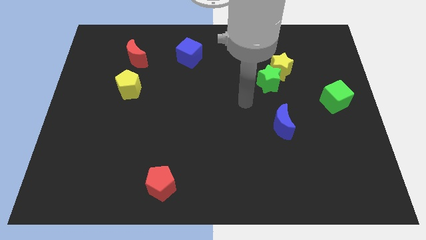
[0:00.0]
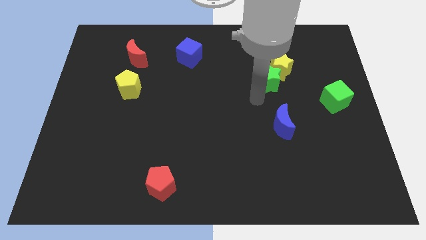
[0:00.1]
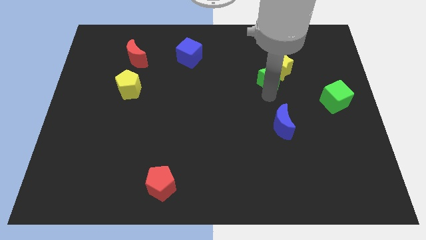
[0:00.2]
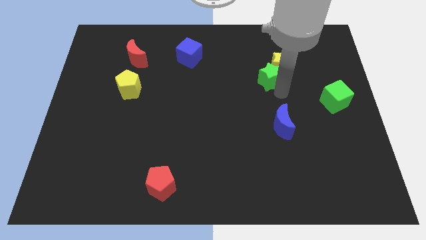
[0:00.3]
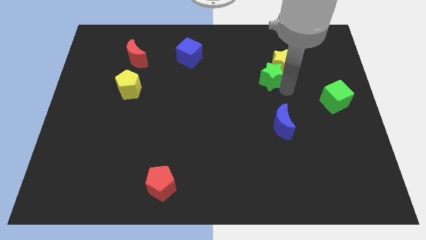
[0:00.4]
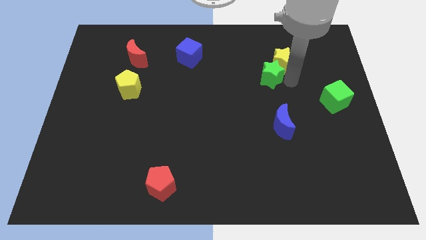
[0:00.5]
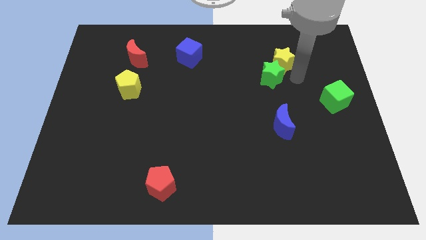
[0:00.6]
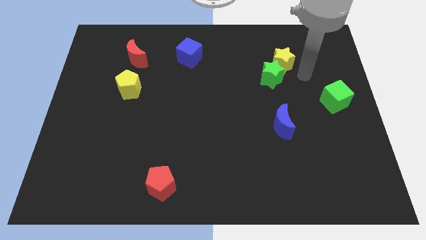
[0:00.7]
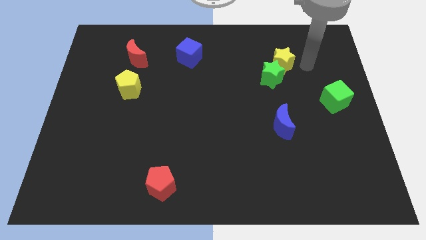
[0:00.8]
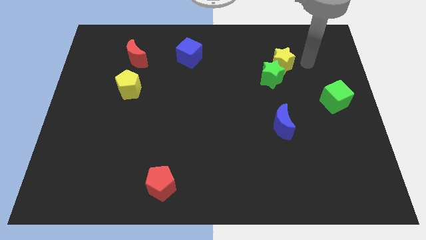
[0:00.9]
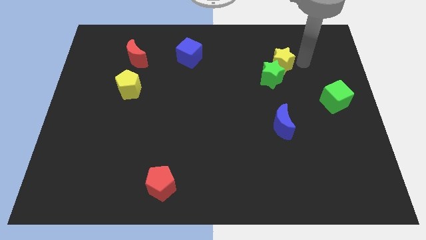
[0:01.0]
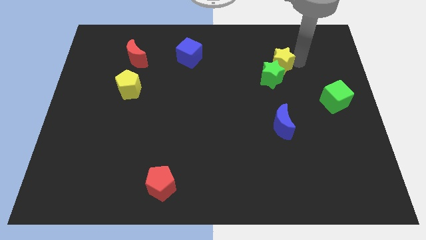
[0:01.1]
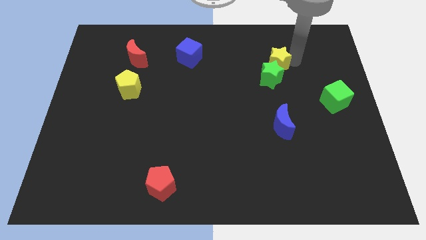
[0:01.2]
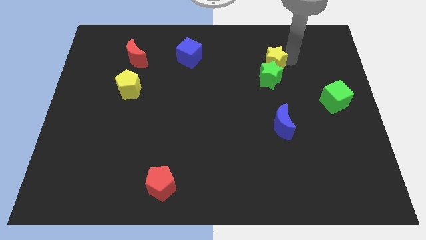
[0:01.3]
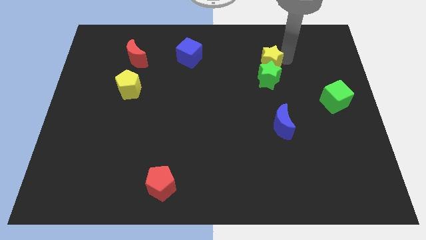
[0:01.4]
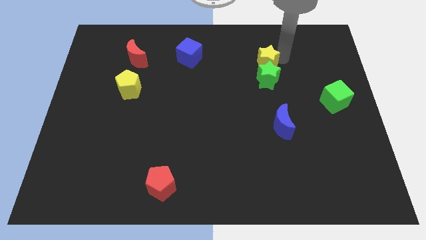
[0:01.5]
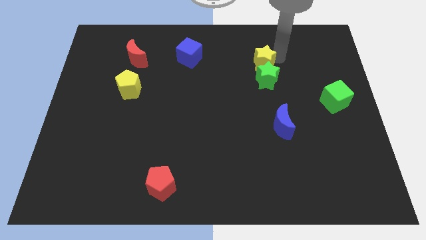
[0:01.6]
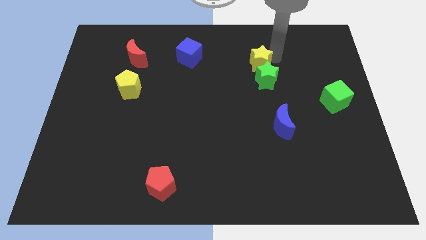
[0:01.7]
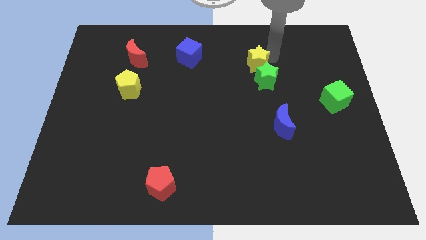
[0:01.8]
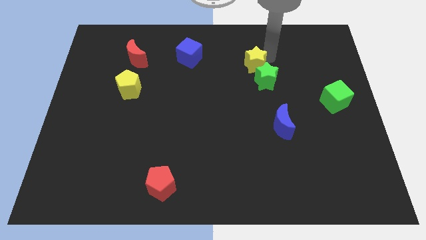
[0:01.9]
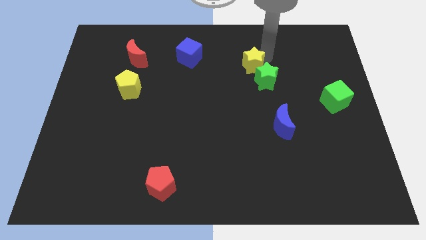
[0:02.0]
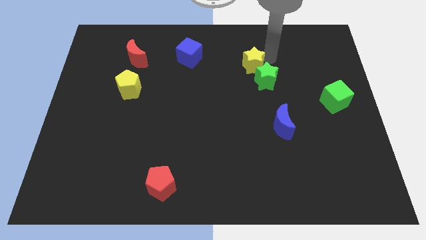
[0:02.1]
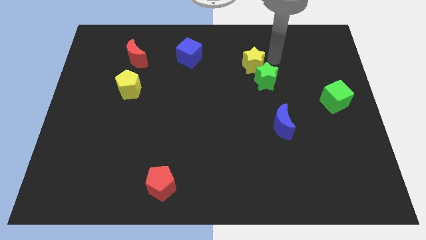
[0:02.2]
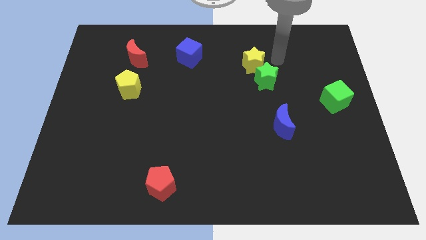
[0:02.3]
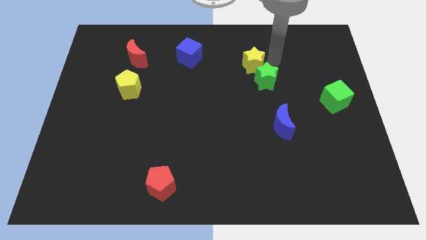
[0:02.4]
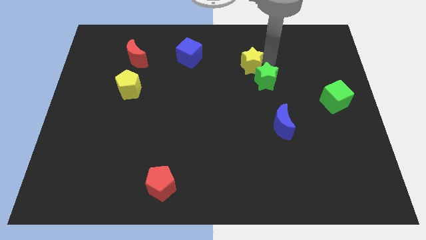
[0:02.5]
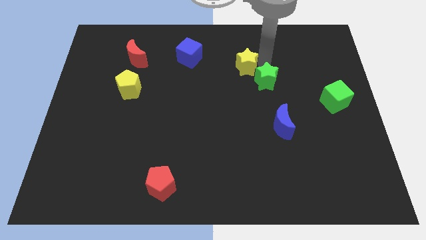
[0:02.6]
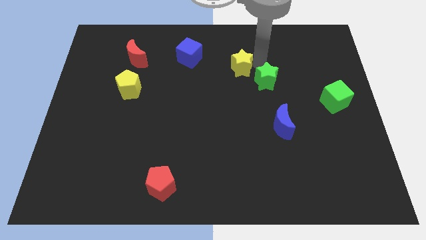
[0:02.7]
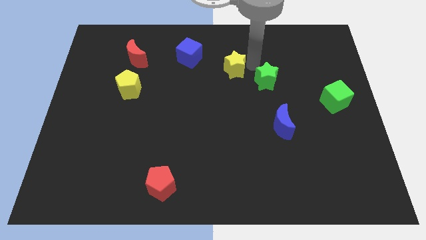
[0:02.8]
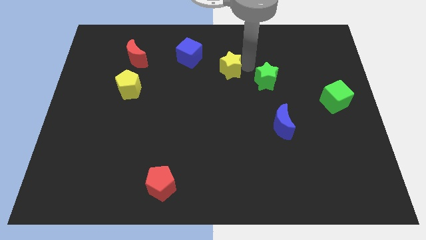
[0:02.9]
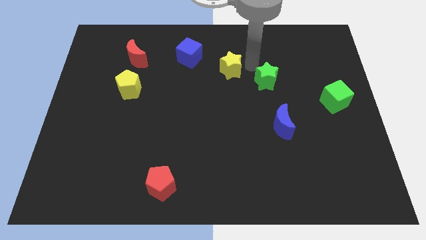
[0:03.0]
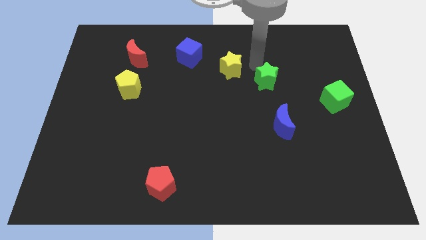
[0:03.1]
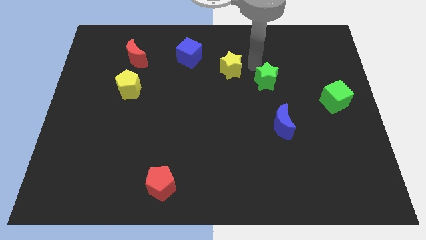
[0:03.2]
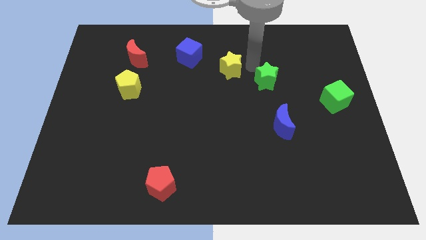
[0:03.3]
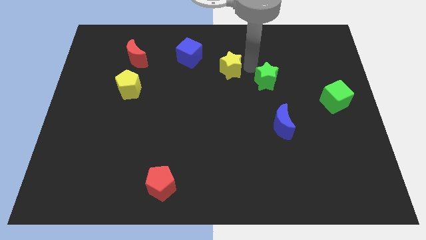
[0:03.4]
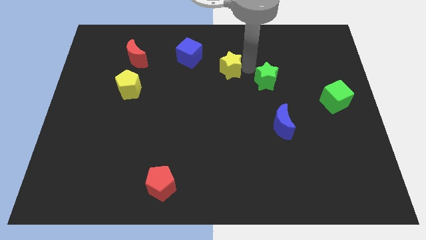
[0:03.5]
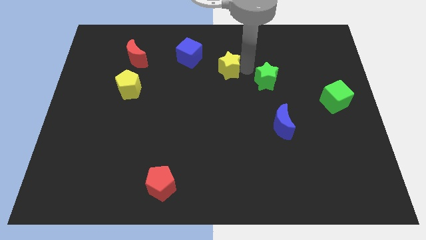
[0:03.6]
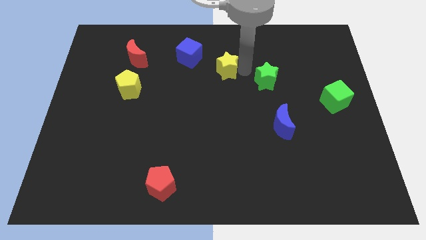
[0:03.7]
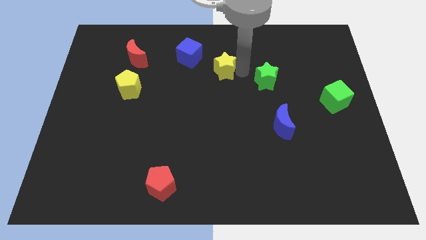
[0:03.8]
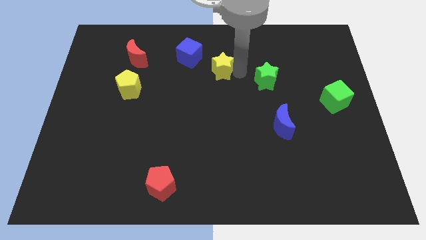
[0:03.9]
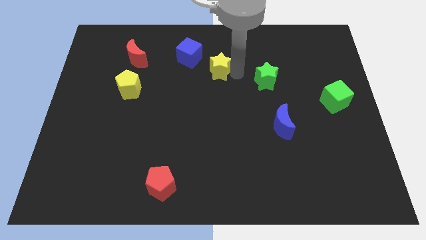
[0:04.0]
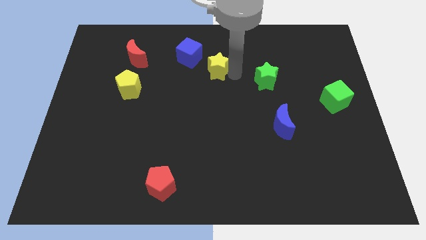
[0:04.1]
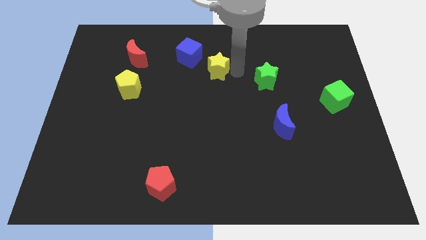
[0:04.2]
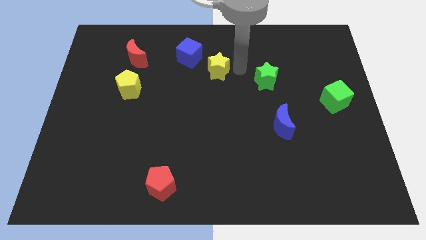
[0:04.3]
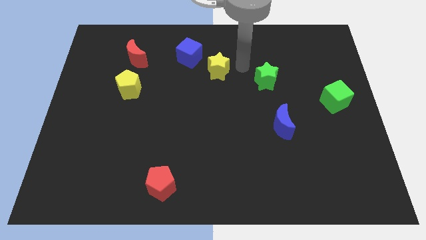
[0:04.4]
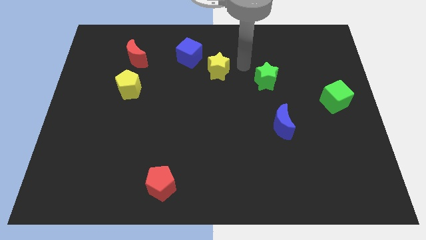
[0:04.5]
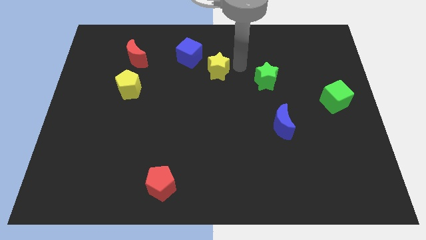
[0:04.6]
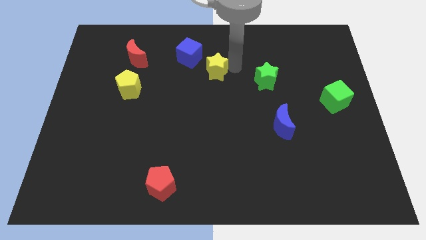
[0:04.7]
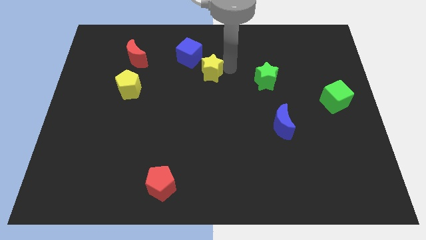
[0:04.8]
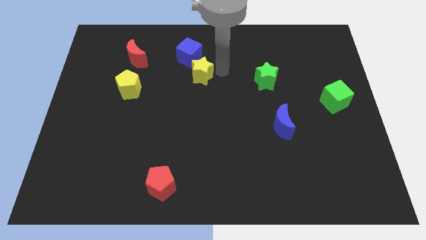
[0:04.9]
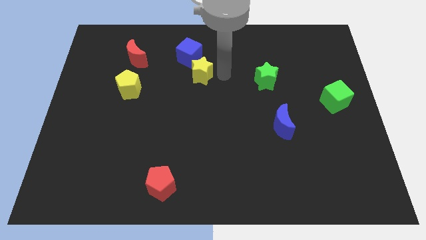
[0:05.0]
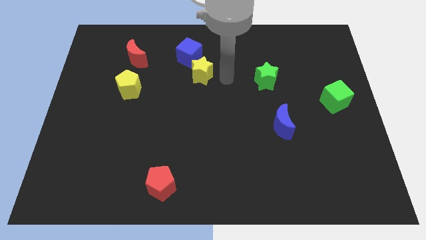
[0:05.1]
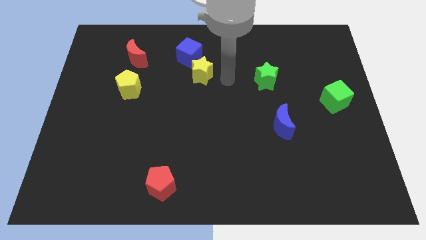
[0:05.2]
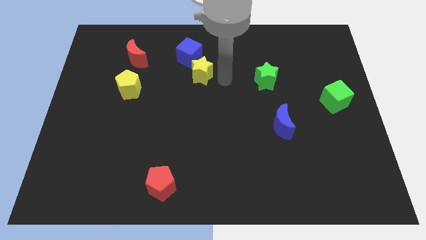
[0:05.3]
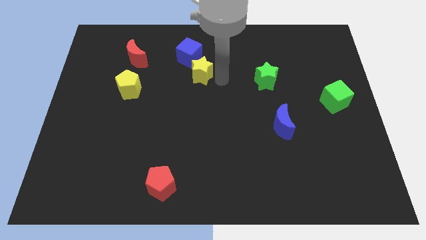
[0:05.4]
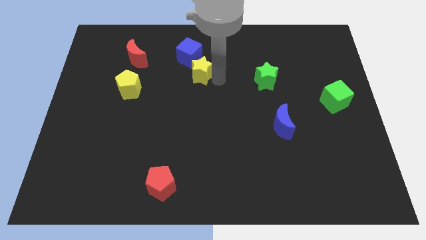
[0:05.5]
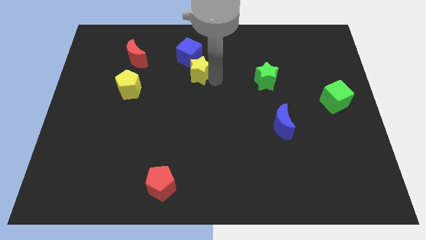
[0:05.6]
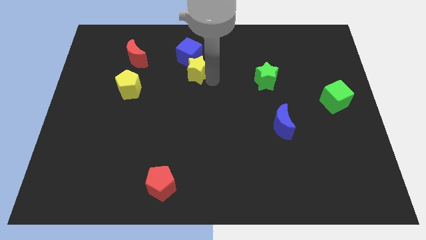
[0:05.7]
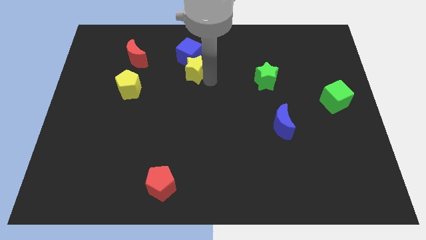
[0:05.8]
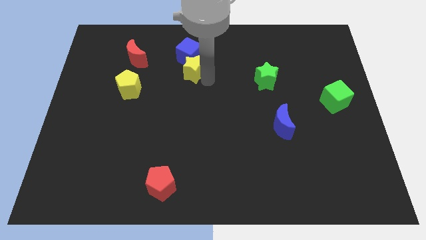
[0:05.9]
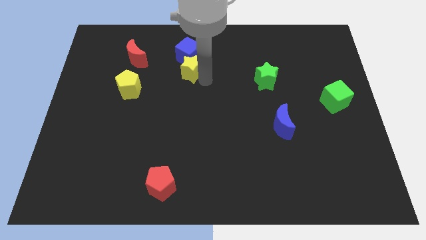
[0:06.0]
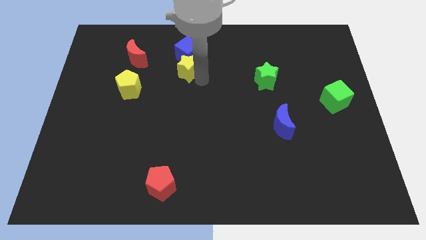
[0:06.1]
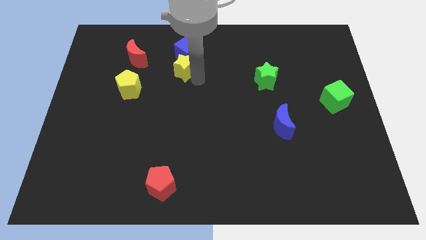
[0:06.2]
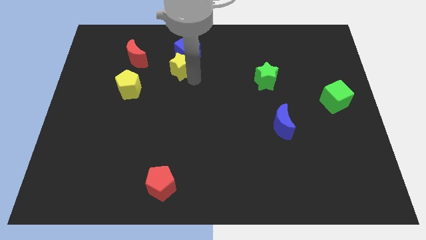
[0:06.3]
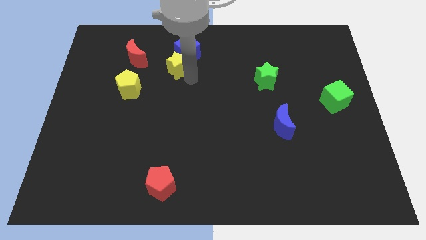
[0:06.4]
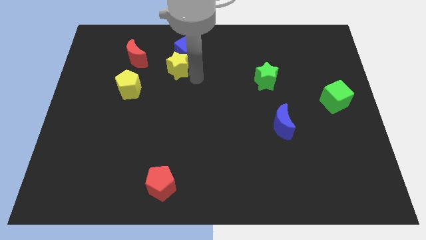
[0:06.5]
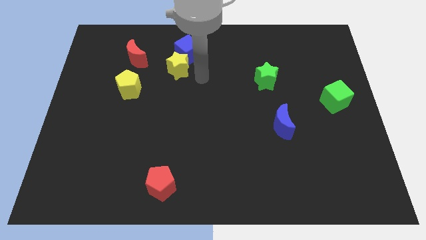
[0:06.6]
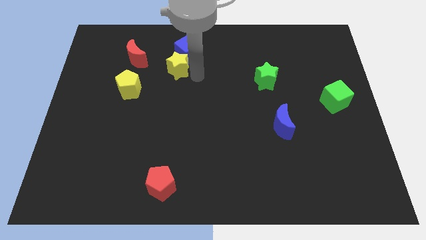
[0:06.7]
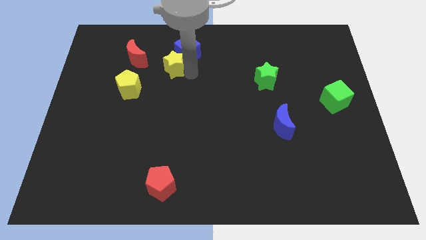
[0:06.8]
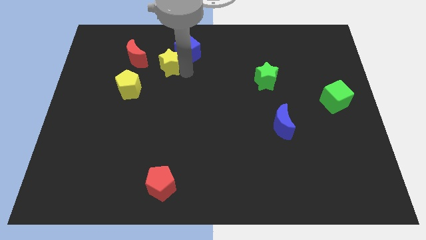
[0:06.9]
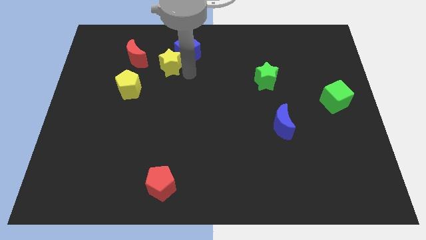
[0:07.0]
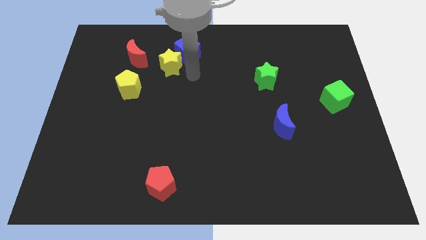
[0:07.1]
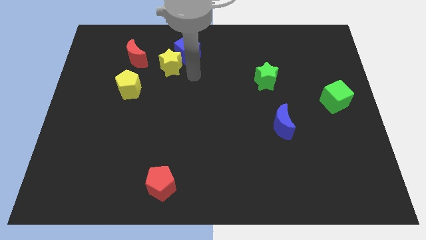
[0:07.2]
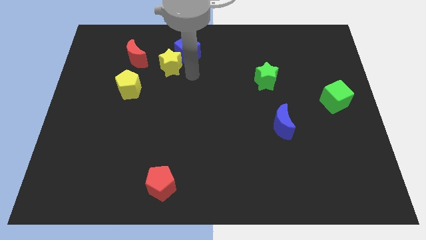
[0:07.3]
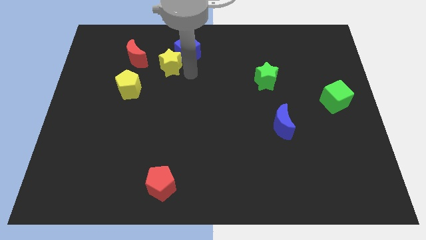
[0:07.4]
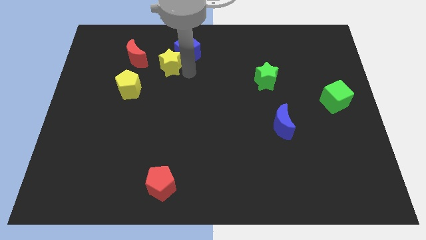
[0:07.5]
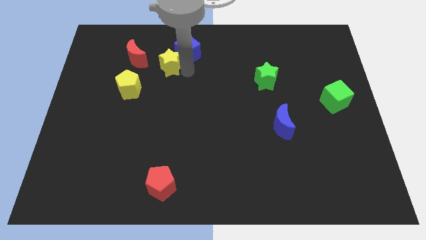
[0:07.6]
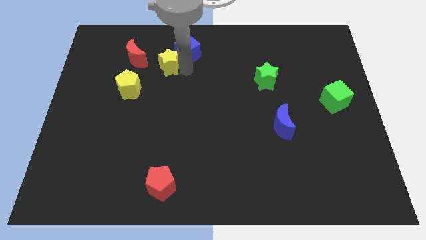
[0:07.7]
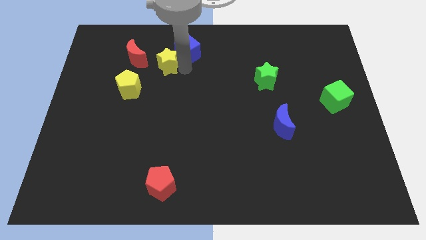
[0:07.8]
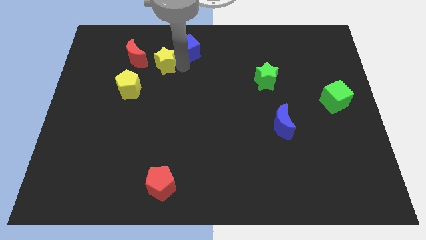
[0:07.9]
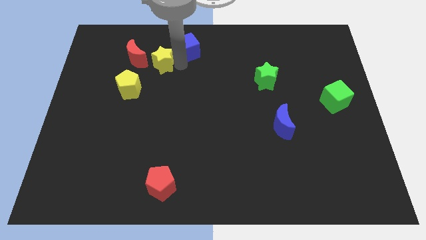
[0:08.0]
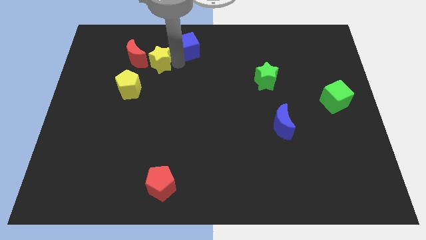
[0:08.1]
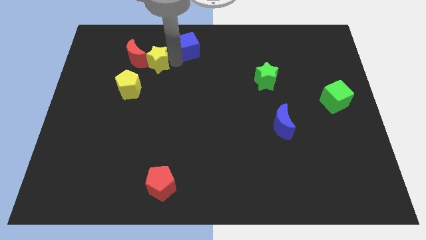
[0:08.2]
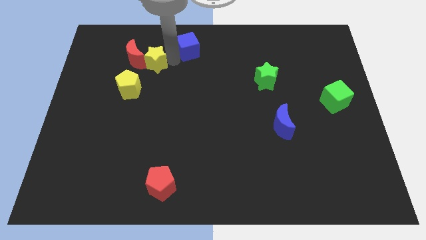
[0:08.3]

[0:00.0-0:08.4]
move the yellow star towards the red moon
